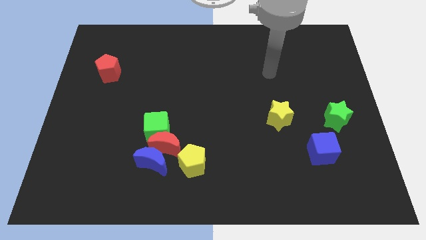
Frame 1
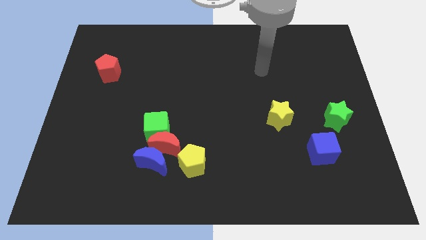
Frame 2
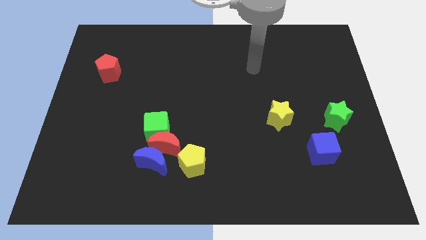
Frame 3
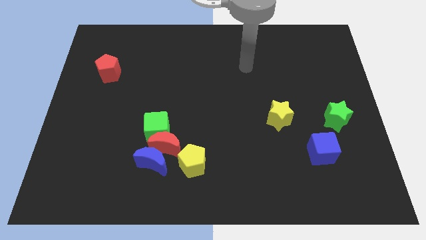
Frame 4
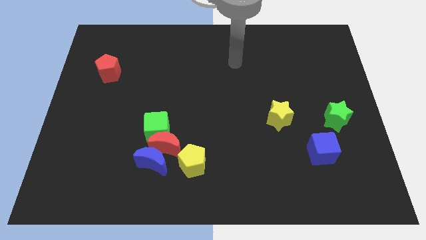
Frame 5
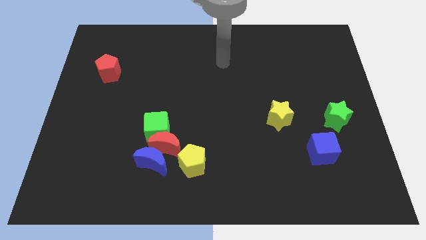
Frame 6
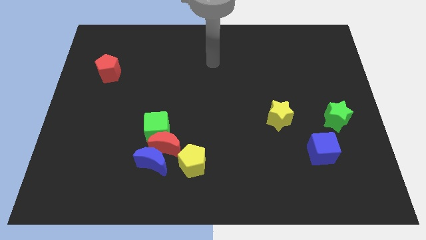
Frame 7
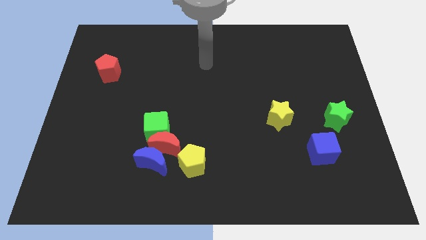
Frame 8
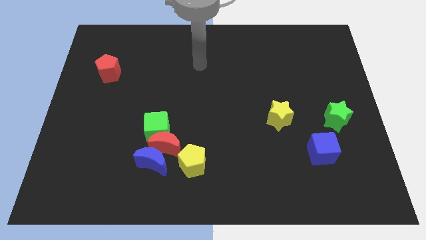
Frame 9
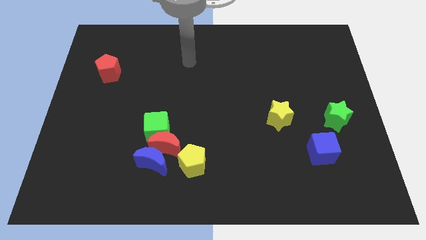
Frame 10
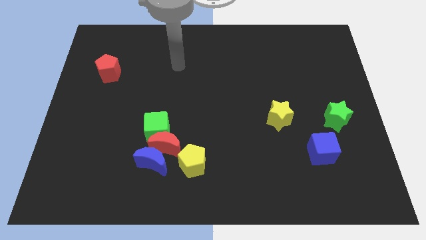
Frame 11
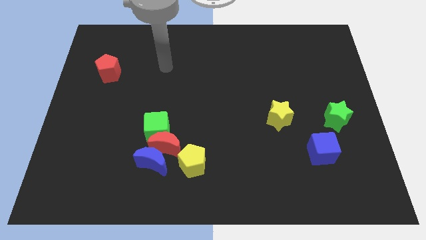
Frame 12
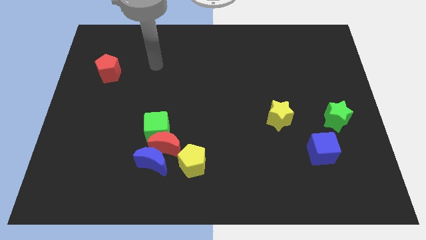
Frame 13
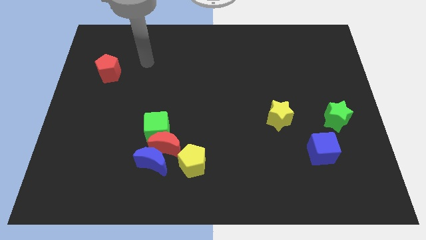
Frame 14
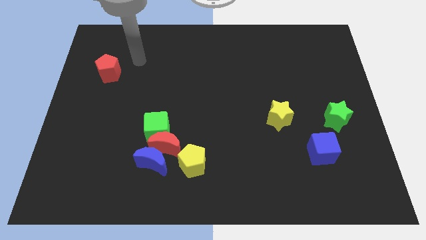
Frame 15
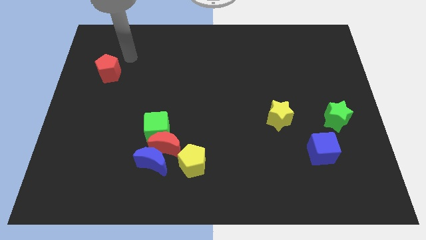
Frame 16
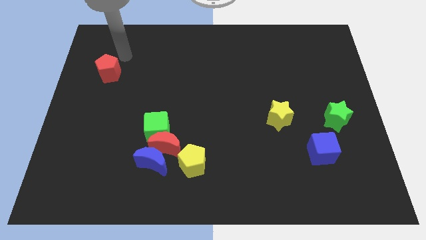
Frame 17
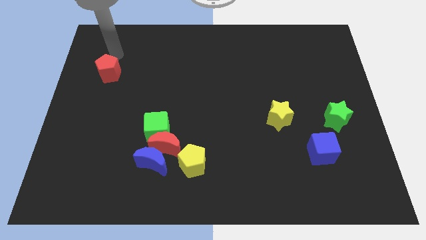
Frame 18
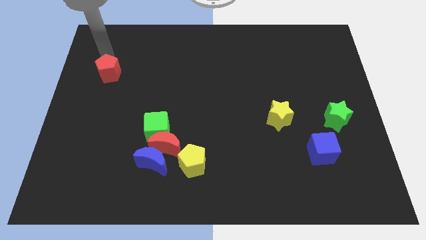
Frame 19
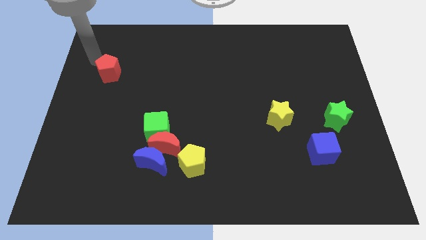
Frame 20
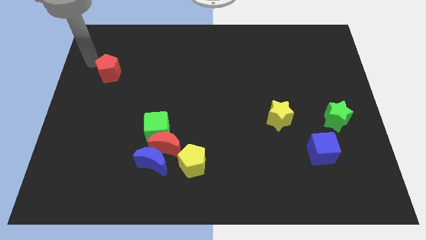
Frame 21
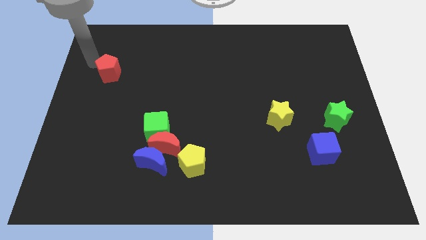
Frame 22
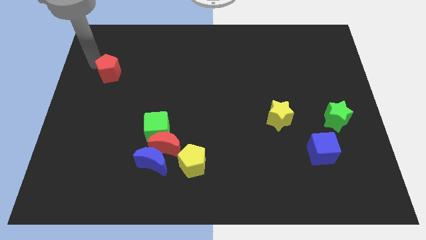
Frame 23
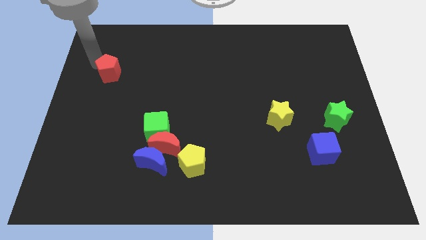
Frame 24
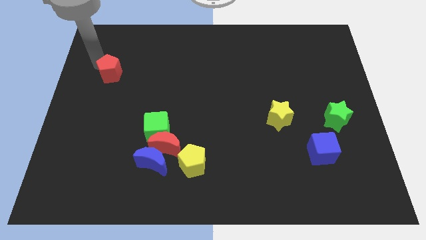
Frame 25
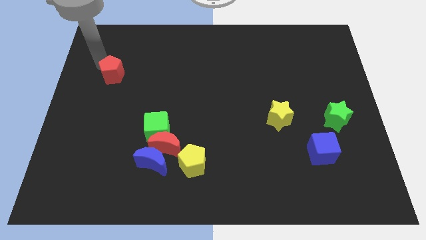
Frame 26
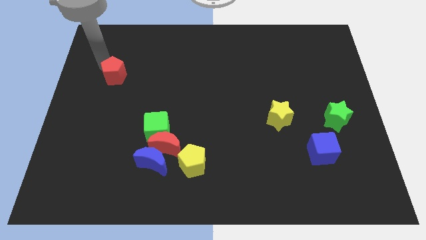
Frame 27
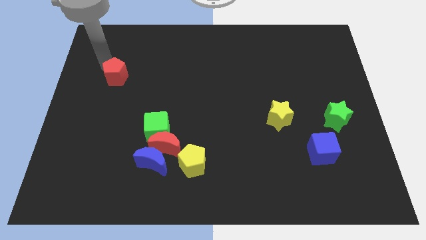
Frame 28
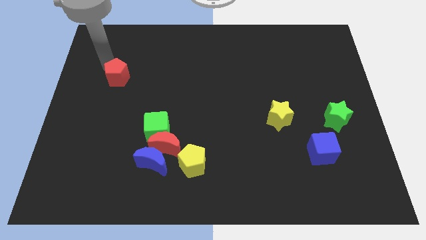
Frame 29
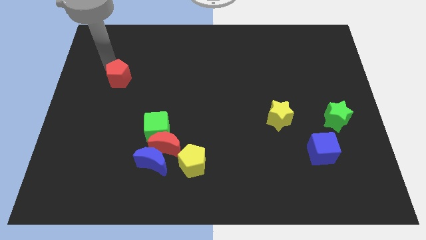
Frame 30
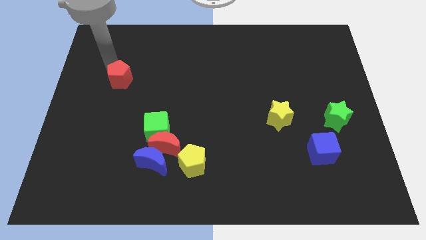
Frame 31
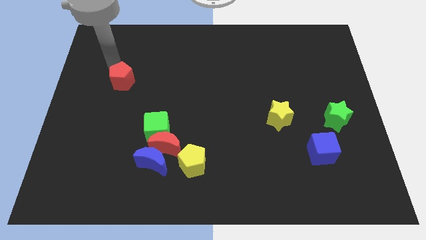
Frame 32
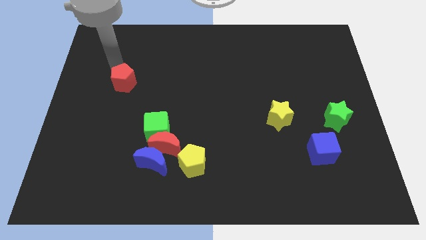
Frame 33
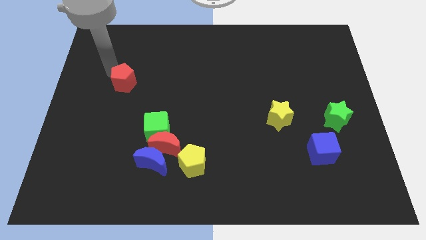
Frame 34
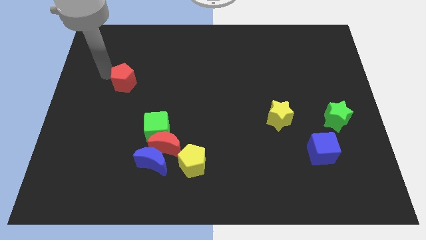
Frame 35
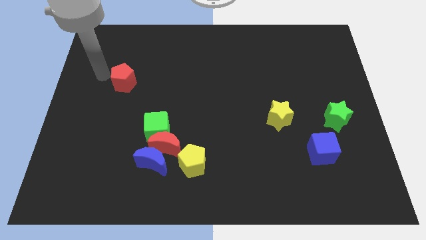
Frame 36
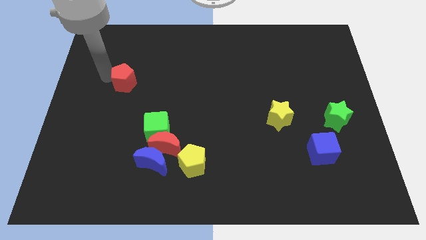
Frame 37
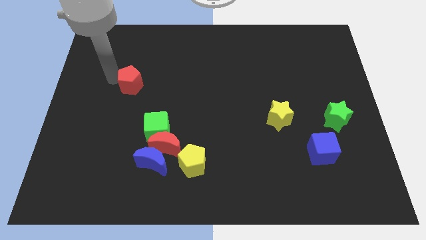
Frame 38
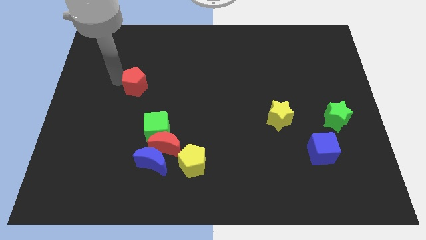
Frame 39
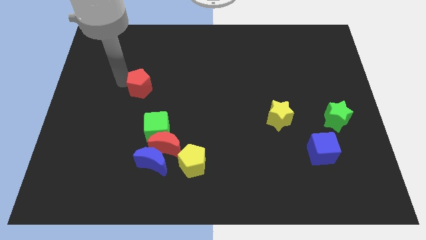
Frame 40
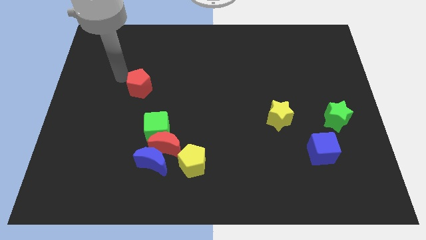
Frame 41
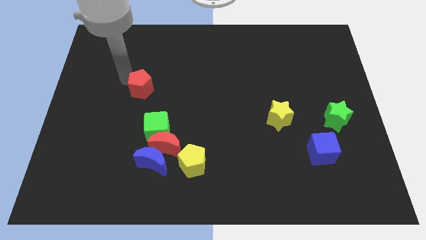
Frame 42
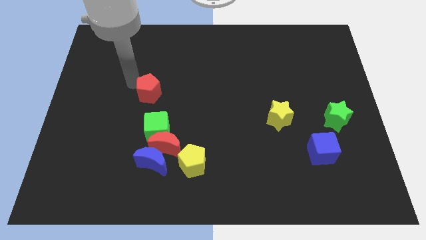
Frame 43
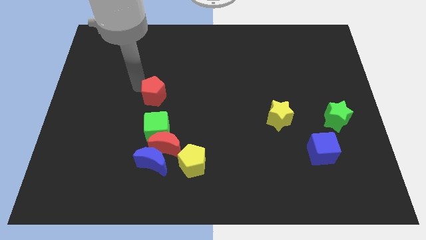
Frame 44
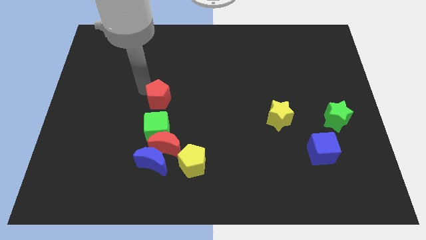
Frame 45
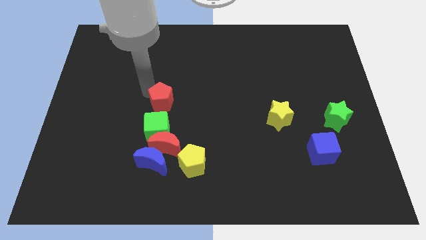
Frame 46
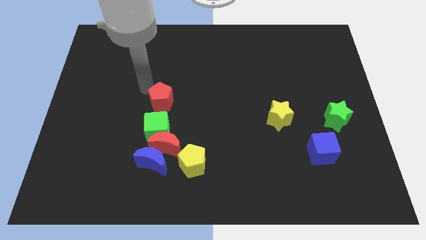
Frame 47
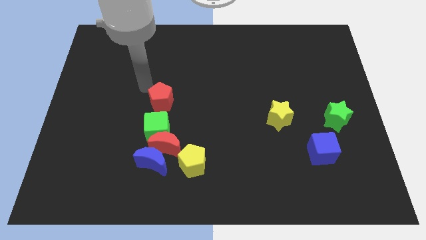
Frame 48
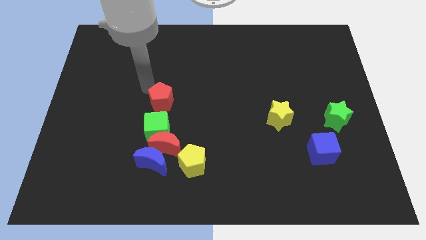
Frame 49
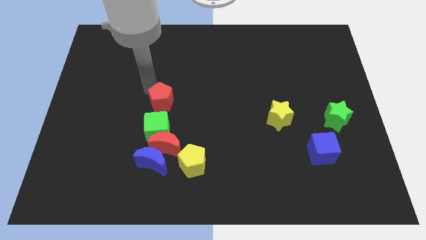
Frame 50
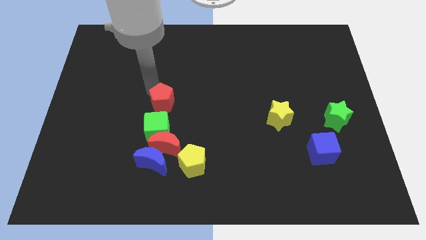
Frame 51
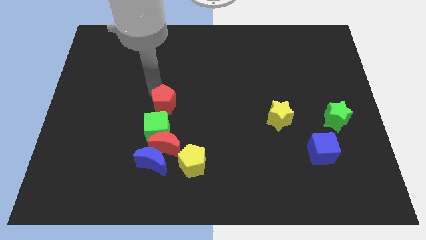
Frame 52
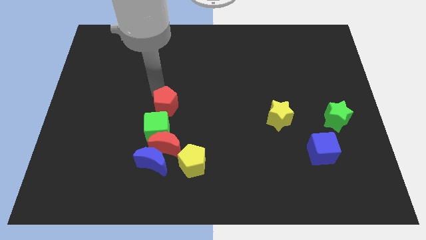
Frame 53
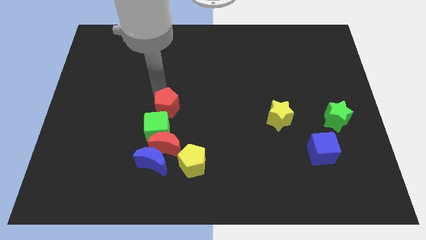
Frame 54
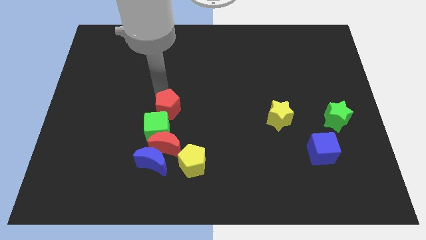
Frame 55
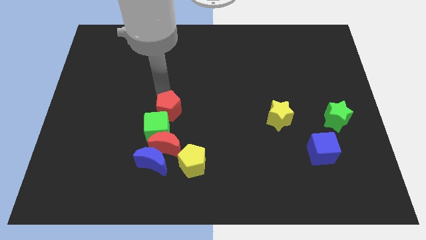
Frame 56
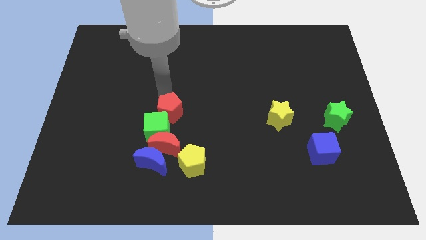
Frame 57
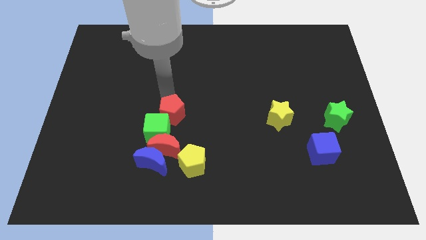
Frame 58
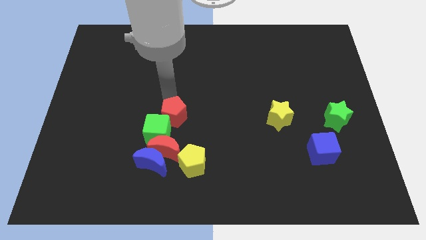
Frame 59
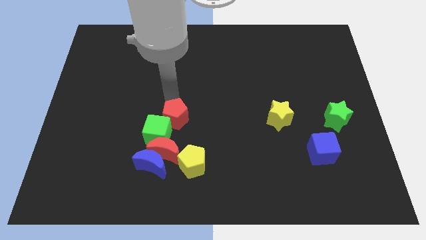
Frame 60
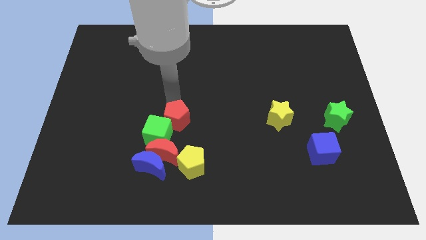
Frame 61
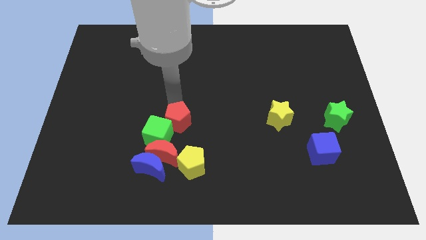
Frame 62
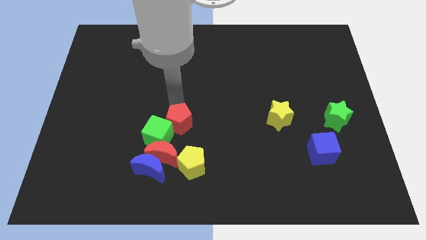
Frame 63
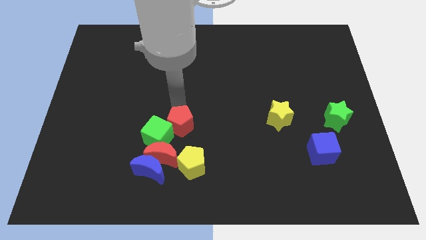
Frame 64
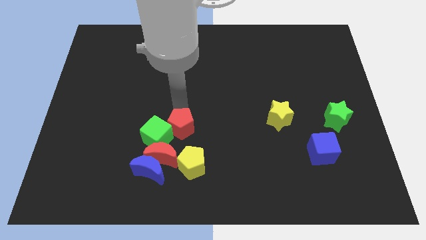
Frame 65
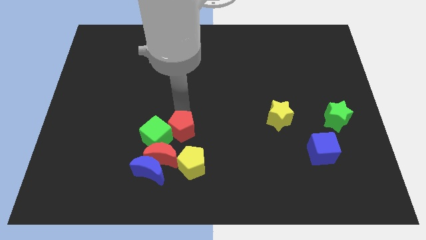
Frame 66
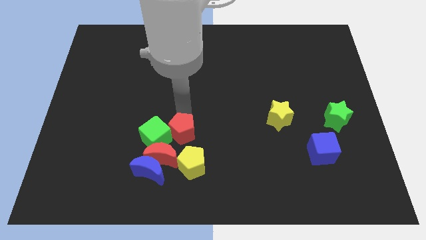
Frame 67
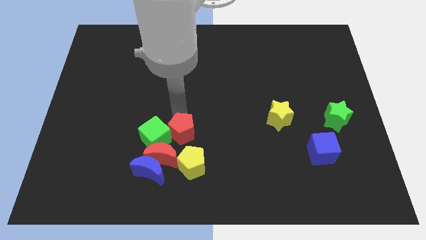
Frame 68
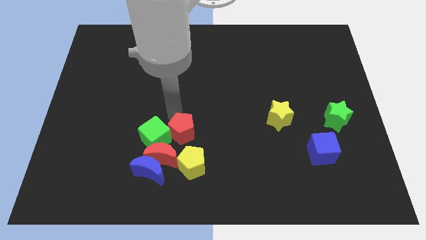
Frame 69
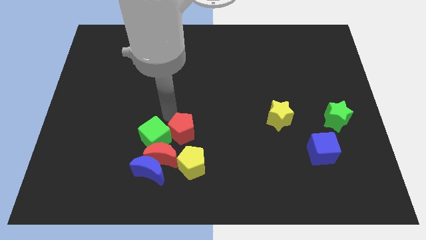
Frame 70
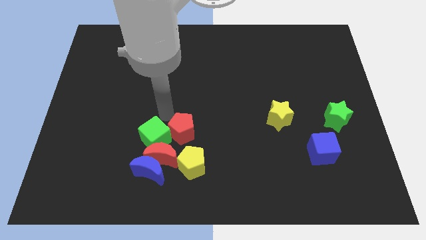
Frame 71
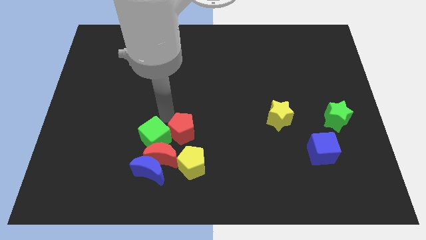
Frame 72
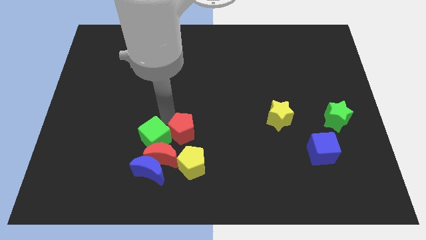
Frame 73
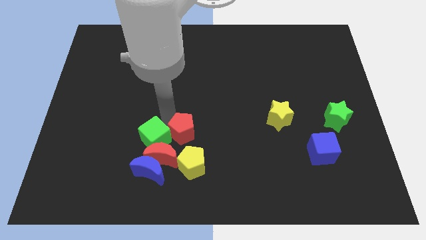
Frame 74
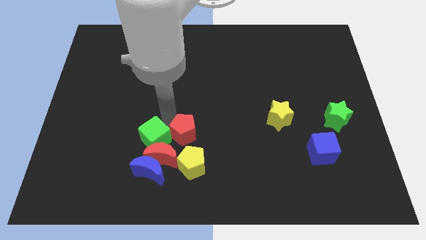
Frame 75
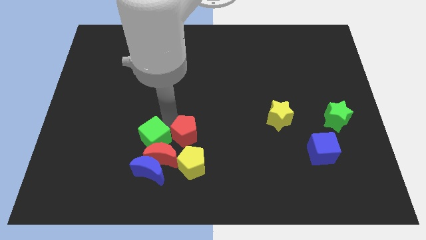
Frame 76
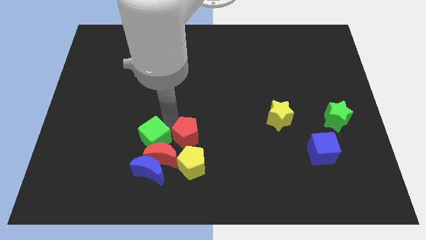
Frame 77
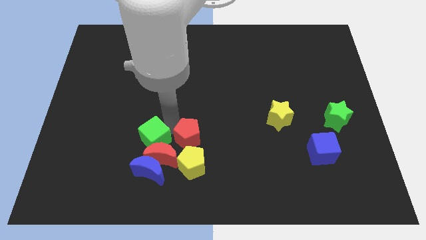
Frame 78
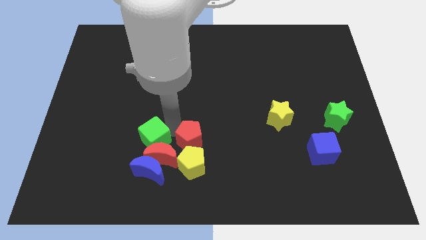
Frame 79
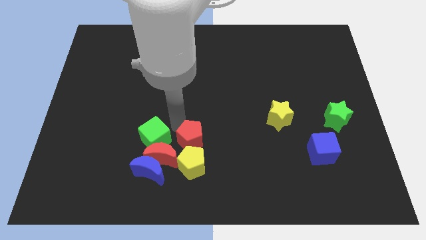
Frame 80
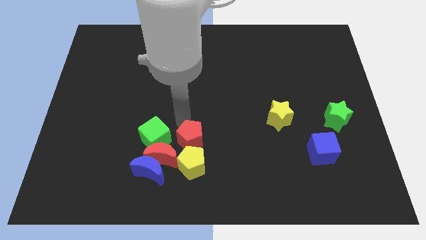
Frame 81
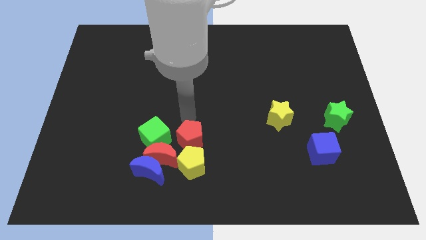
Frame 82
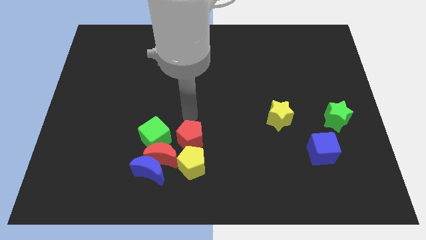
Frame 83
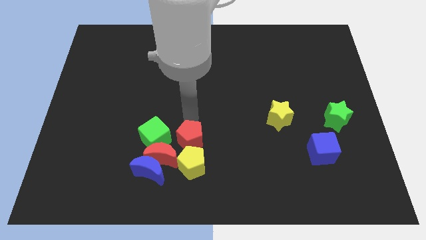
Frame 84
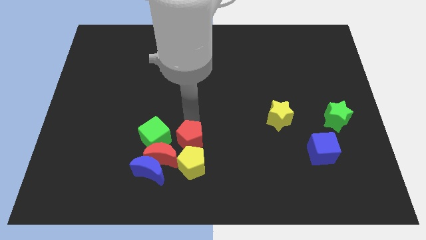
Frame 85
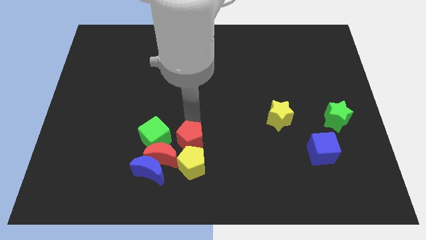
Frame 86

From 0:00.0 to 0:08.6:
push the red pentagon towards the yellow pentagon
